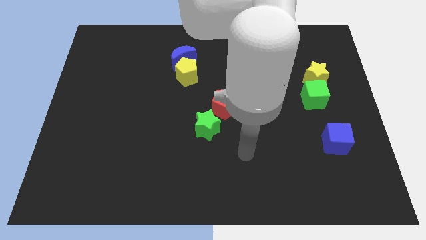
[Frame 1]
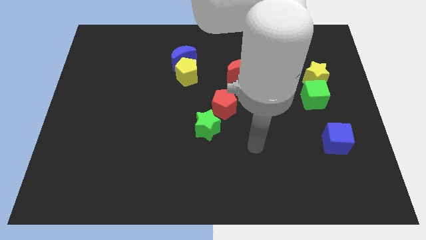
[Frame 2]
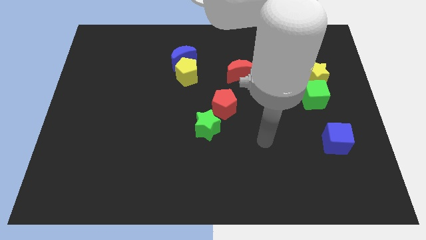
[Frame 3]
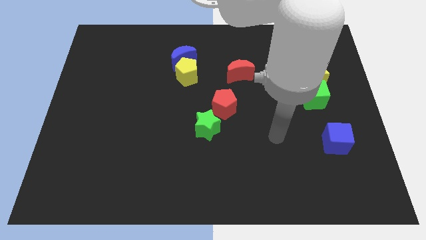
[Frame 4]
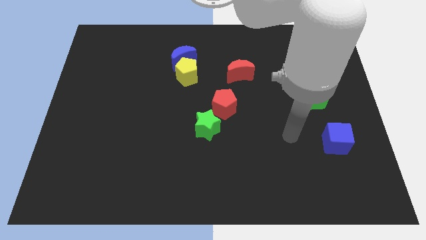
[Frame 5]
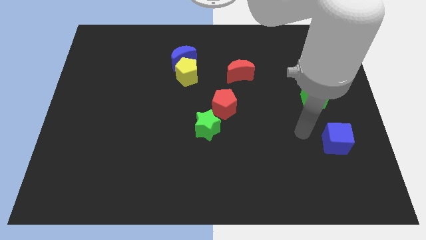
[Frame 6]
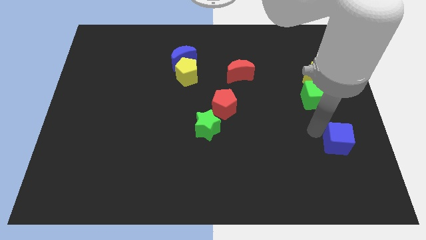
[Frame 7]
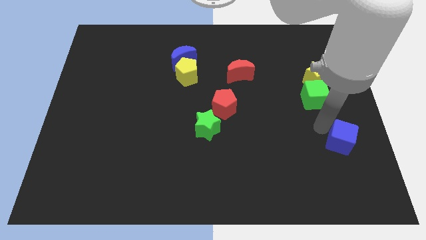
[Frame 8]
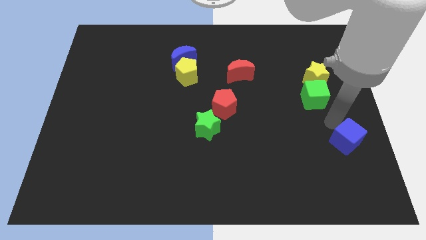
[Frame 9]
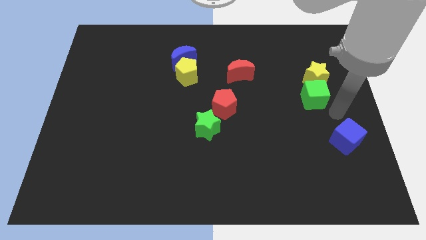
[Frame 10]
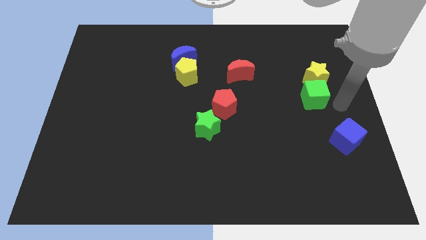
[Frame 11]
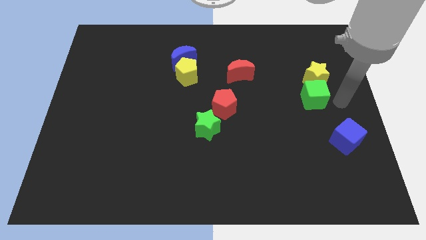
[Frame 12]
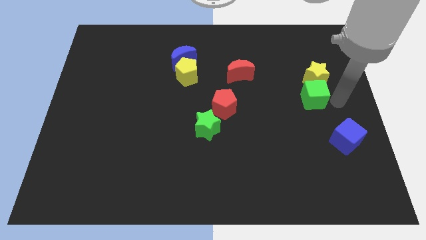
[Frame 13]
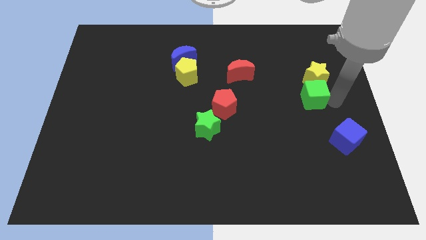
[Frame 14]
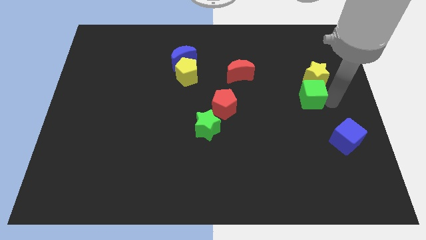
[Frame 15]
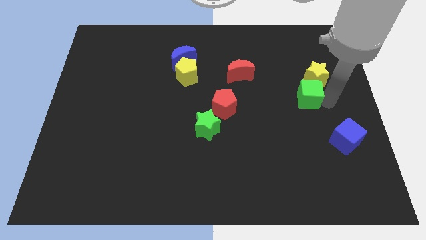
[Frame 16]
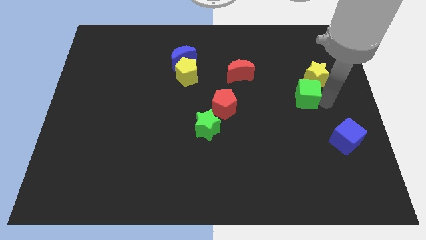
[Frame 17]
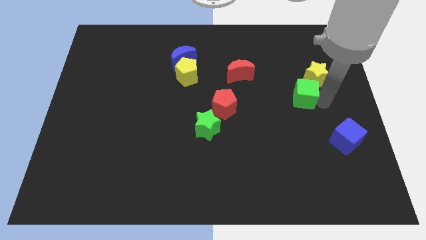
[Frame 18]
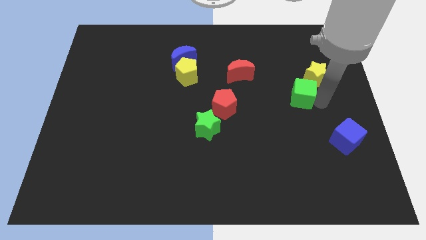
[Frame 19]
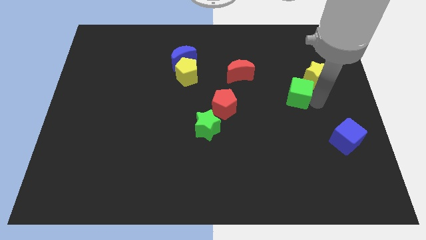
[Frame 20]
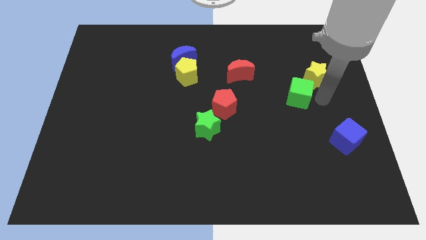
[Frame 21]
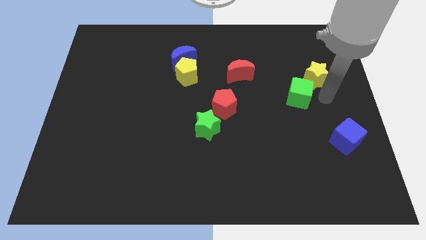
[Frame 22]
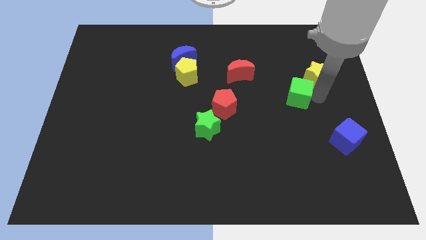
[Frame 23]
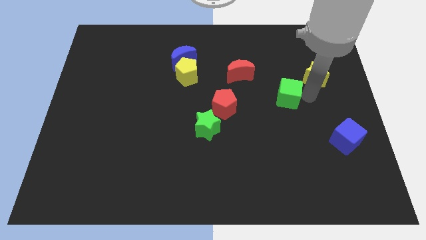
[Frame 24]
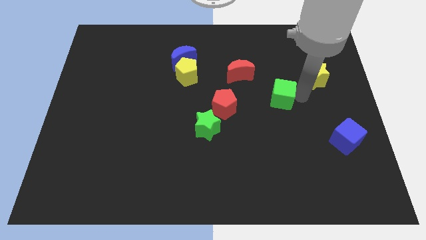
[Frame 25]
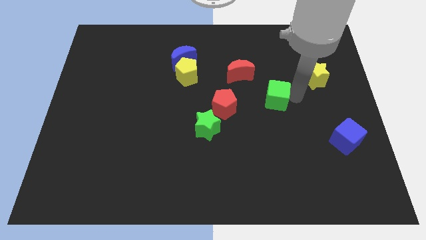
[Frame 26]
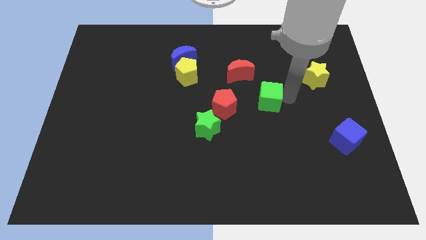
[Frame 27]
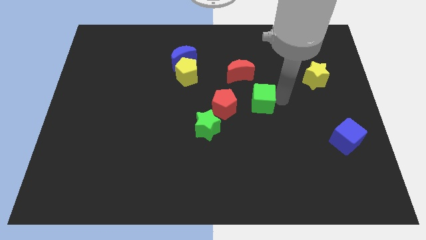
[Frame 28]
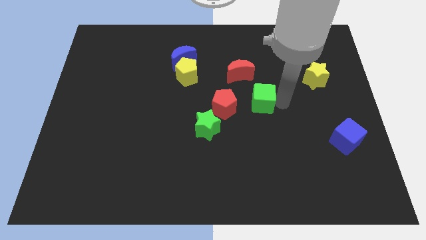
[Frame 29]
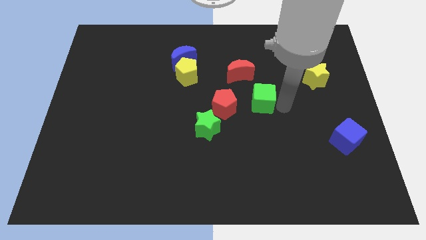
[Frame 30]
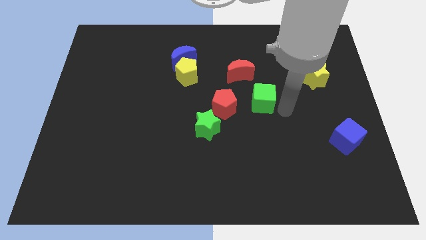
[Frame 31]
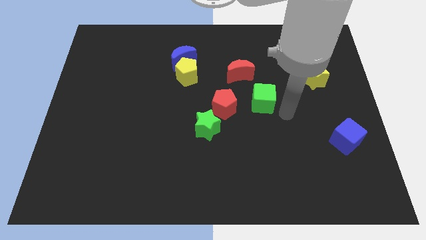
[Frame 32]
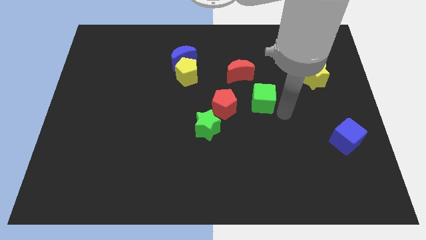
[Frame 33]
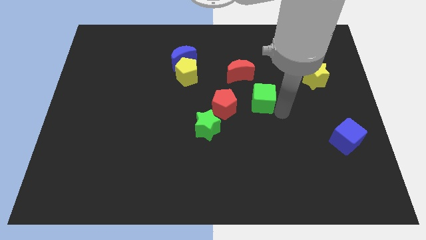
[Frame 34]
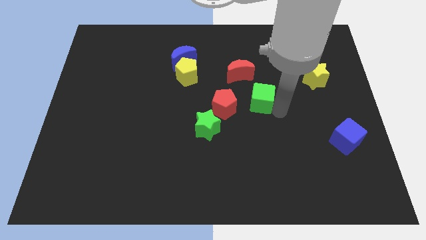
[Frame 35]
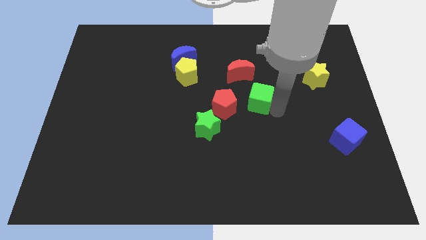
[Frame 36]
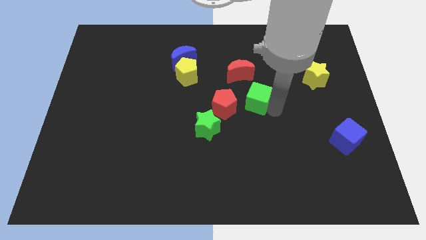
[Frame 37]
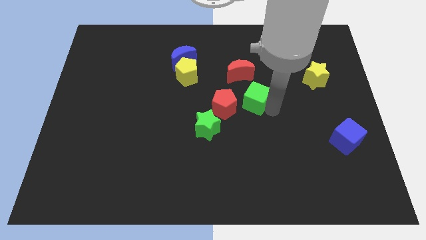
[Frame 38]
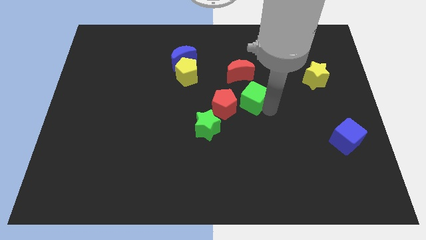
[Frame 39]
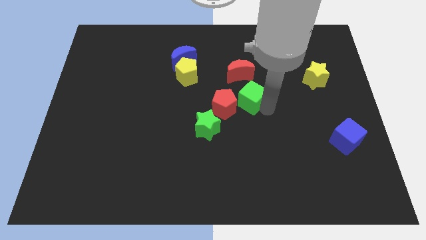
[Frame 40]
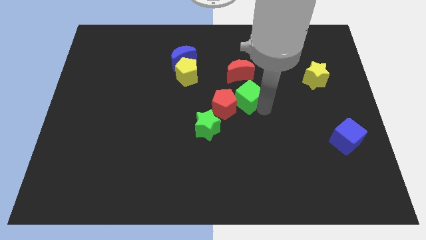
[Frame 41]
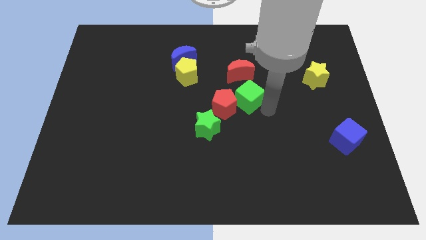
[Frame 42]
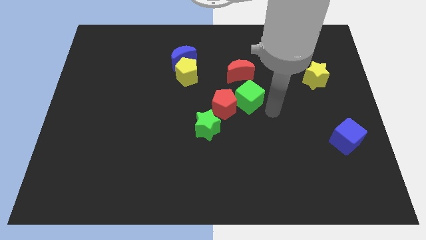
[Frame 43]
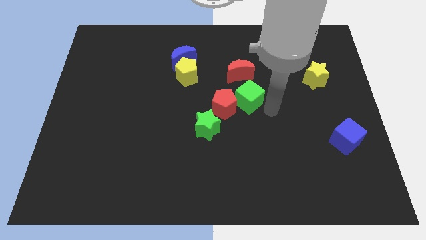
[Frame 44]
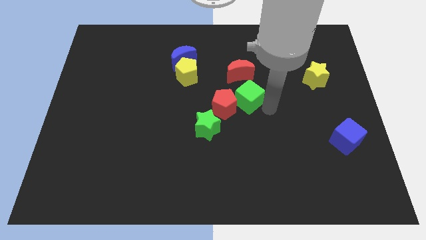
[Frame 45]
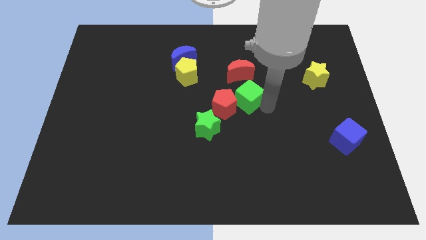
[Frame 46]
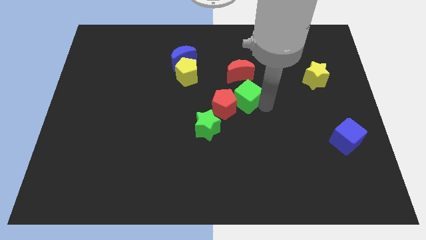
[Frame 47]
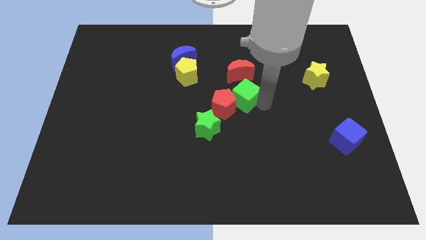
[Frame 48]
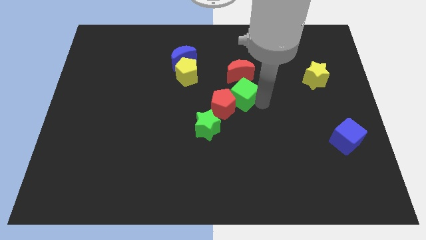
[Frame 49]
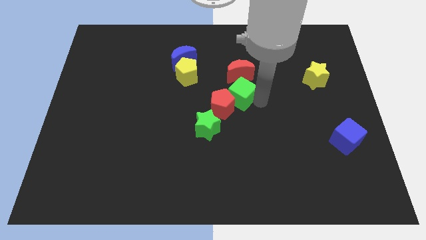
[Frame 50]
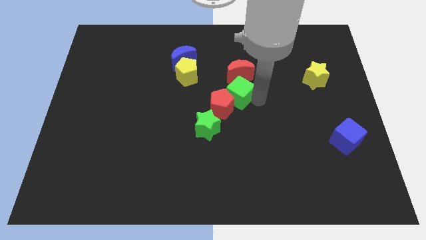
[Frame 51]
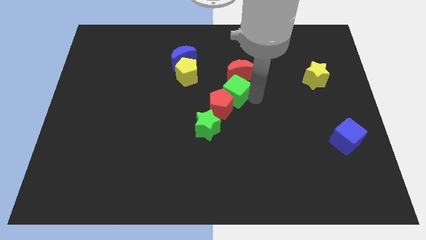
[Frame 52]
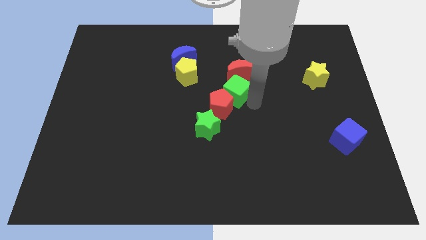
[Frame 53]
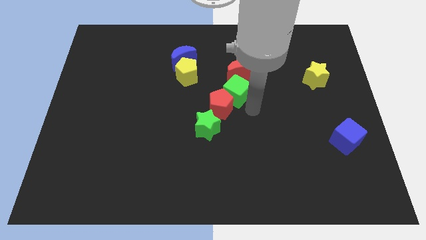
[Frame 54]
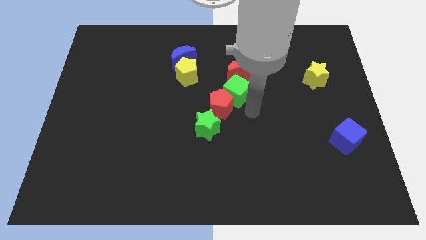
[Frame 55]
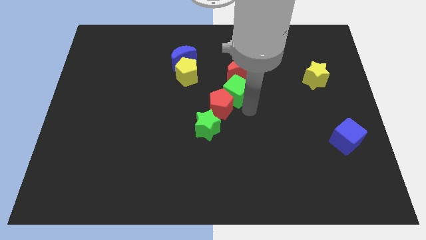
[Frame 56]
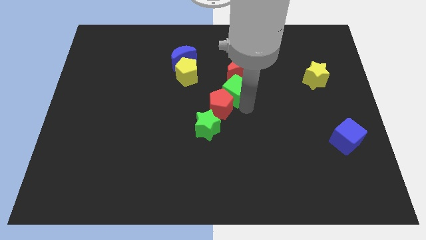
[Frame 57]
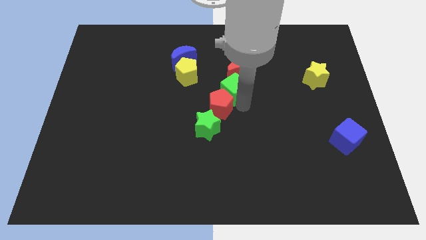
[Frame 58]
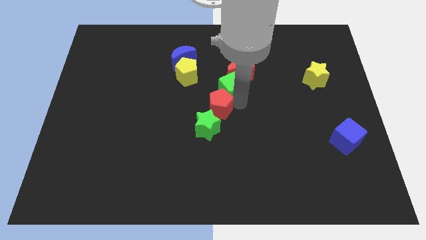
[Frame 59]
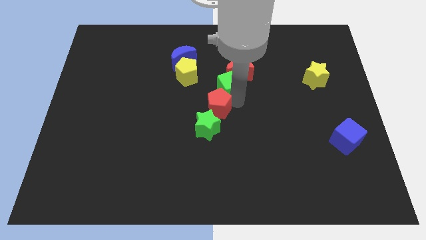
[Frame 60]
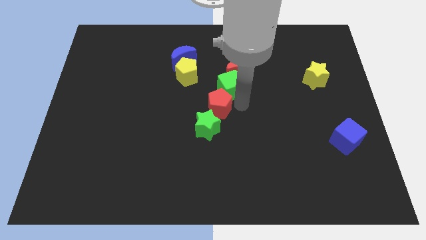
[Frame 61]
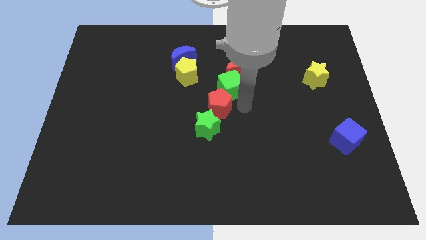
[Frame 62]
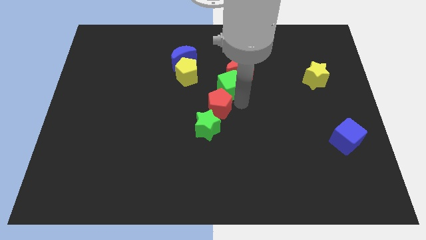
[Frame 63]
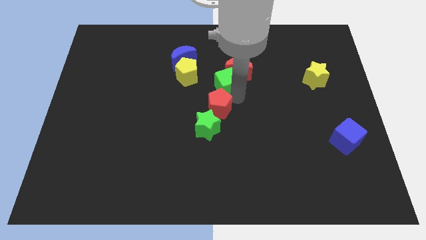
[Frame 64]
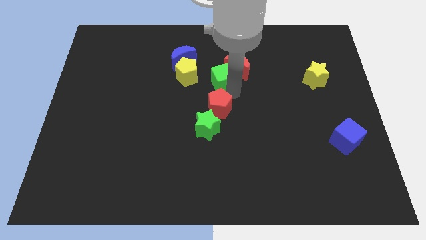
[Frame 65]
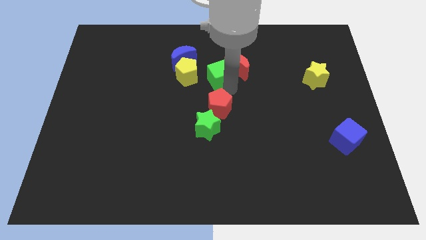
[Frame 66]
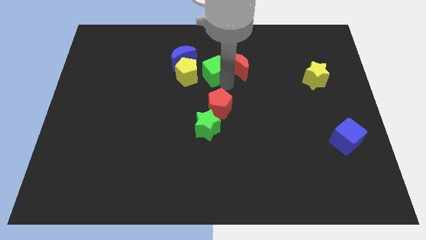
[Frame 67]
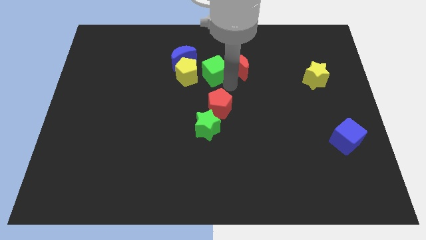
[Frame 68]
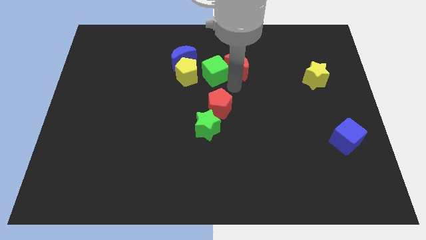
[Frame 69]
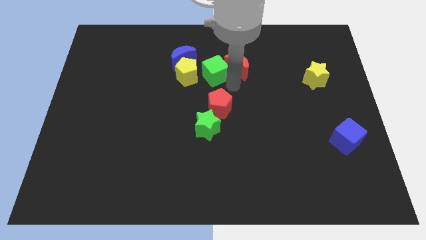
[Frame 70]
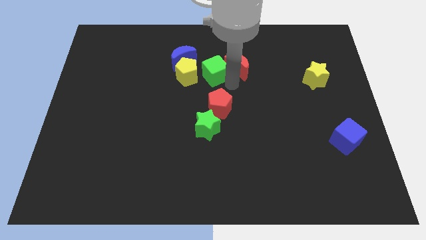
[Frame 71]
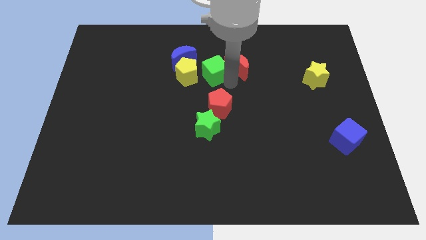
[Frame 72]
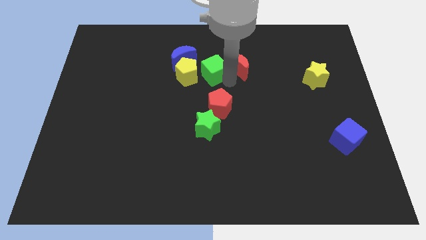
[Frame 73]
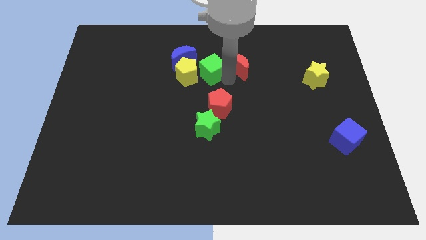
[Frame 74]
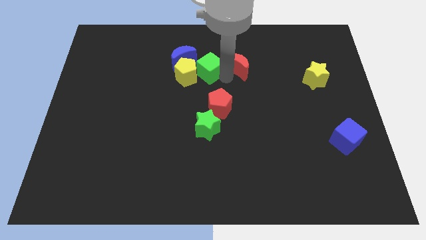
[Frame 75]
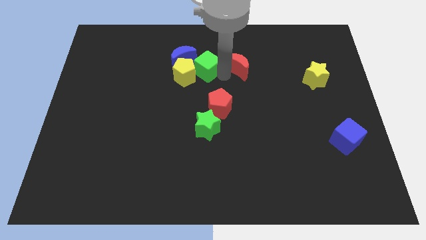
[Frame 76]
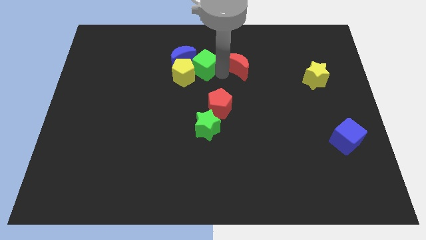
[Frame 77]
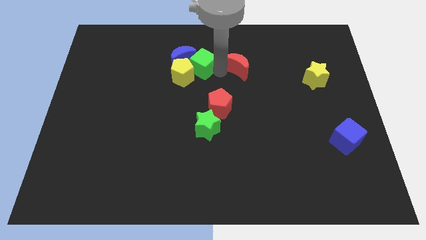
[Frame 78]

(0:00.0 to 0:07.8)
put the green cube towards the blue moon
